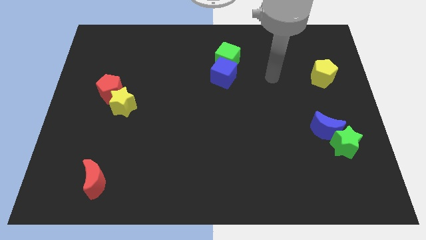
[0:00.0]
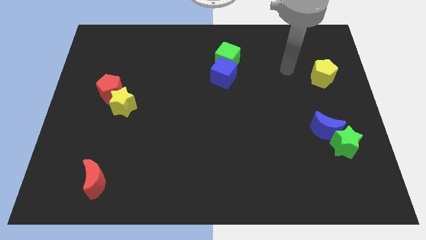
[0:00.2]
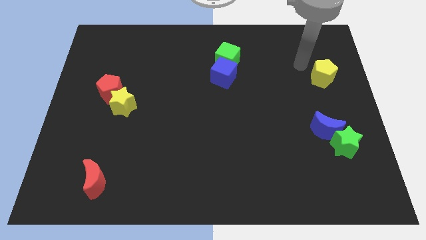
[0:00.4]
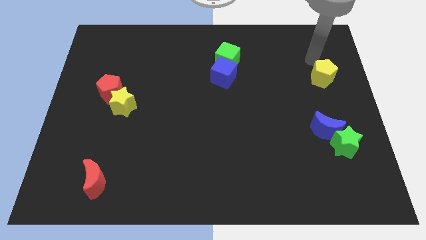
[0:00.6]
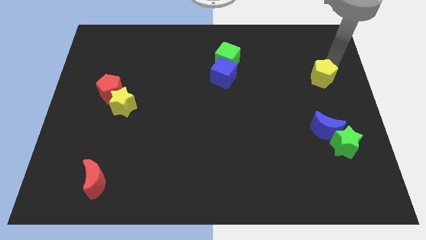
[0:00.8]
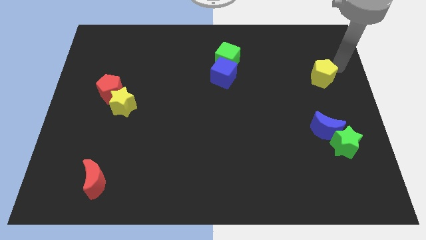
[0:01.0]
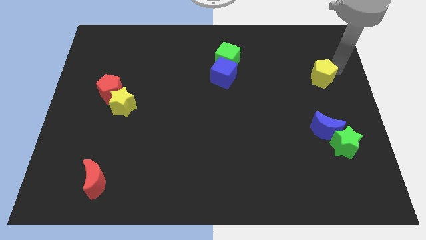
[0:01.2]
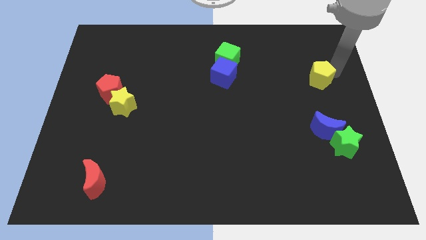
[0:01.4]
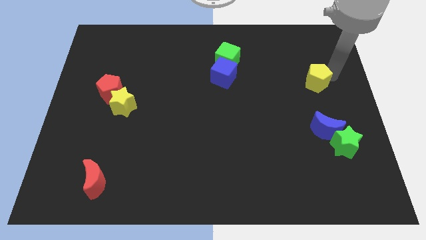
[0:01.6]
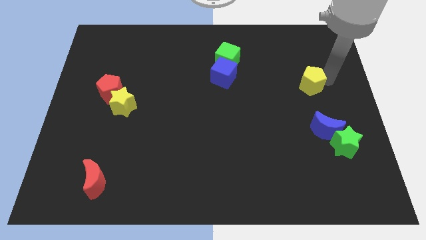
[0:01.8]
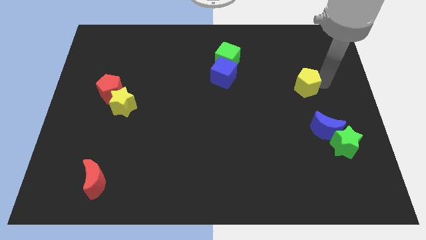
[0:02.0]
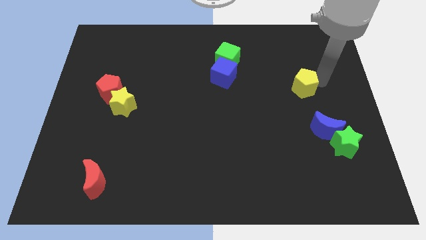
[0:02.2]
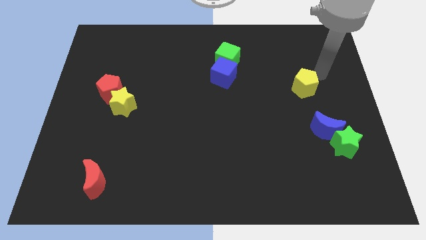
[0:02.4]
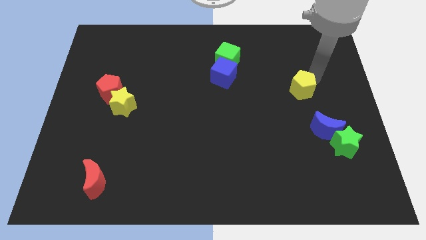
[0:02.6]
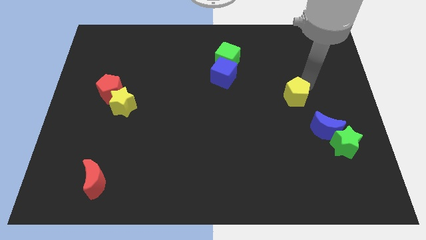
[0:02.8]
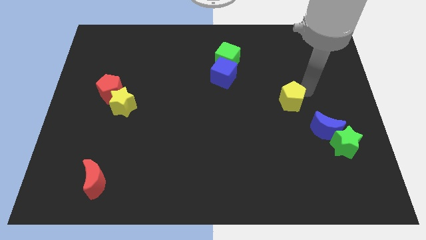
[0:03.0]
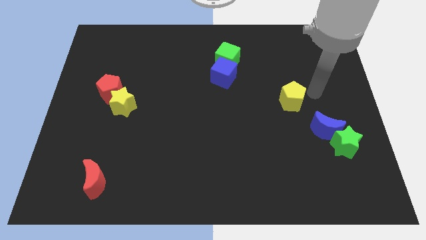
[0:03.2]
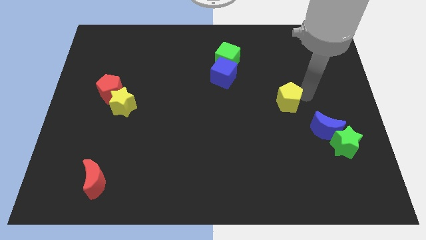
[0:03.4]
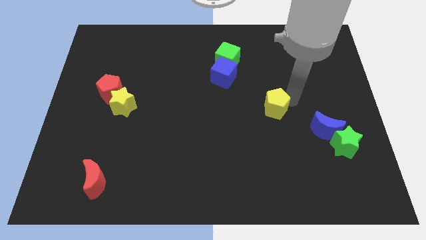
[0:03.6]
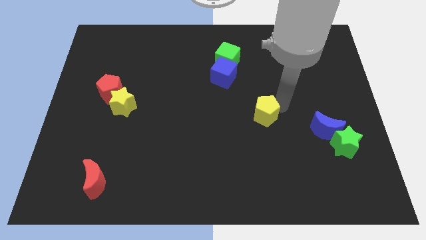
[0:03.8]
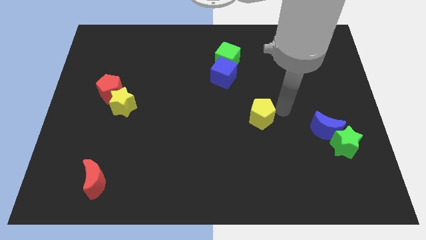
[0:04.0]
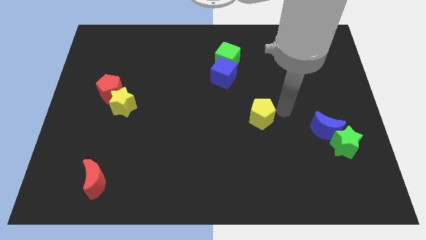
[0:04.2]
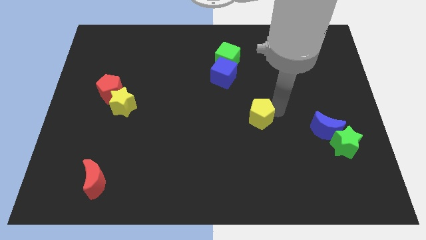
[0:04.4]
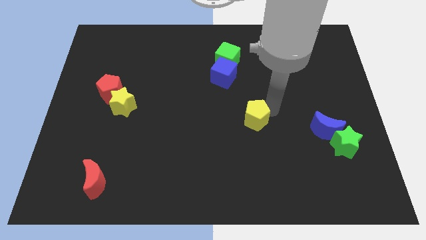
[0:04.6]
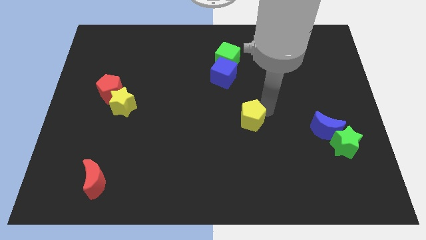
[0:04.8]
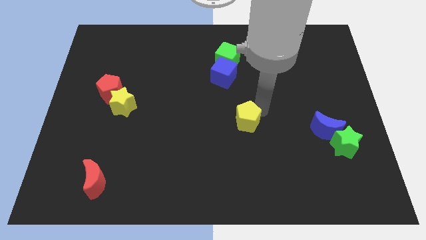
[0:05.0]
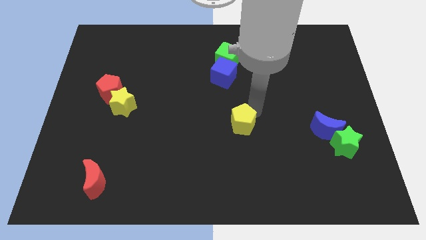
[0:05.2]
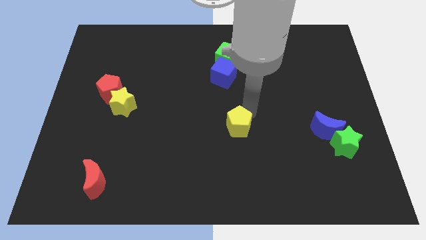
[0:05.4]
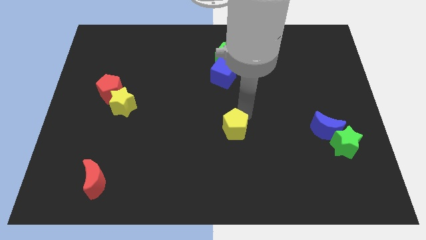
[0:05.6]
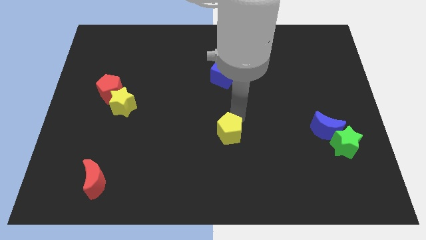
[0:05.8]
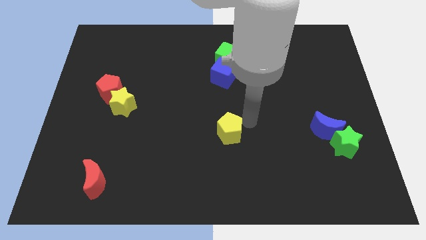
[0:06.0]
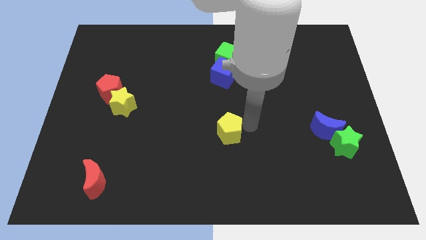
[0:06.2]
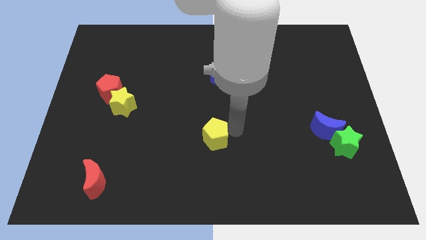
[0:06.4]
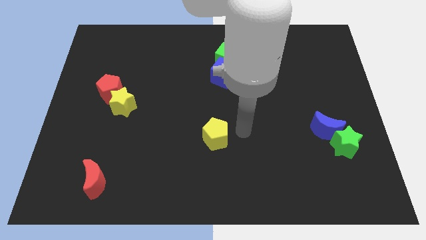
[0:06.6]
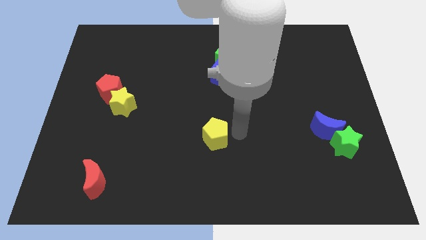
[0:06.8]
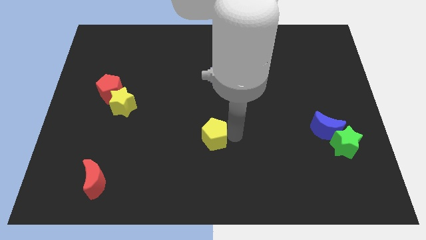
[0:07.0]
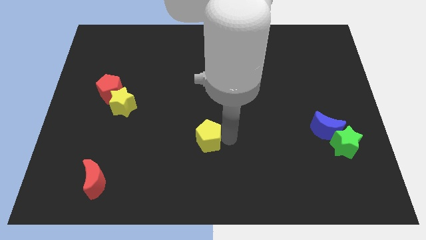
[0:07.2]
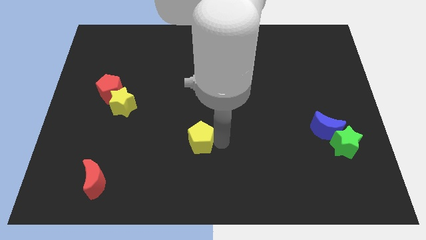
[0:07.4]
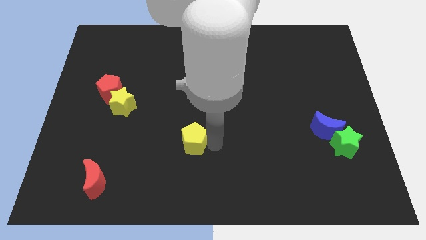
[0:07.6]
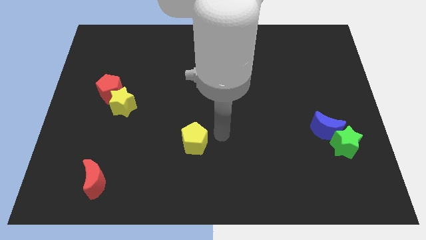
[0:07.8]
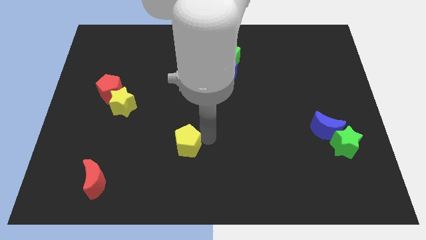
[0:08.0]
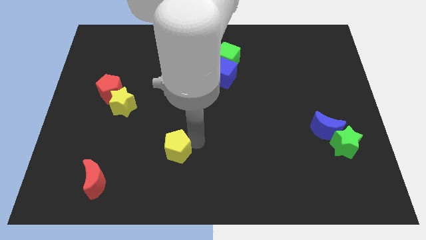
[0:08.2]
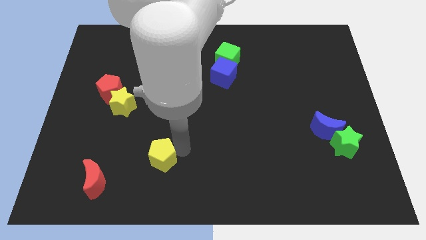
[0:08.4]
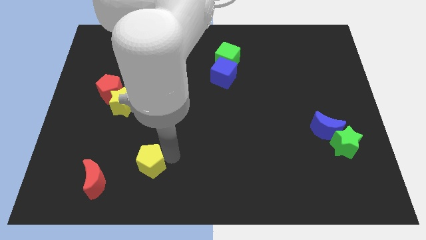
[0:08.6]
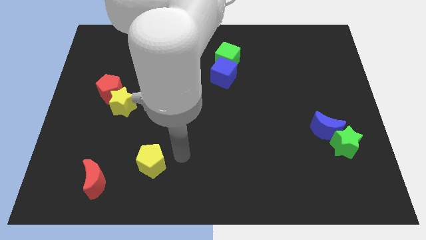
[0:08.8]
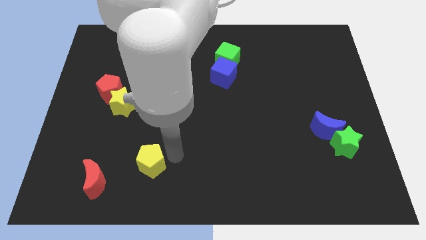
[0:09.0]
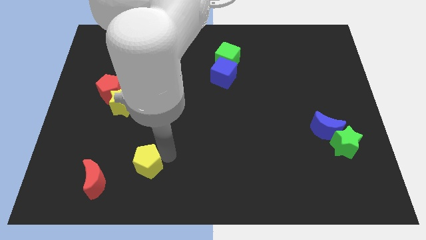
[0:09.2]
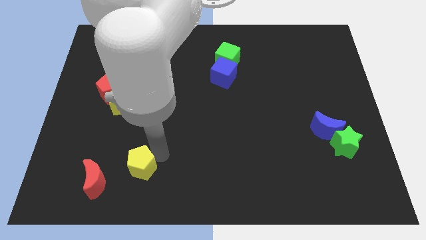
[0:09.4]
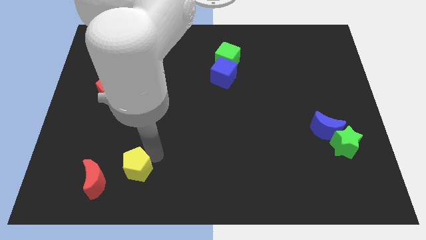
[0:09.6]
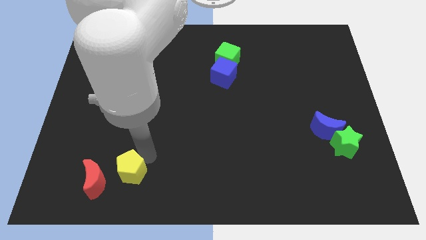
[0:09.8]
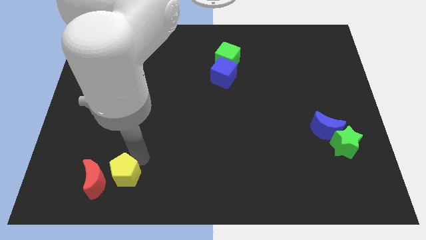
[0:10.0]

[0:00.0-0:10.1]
move the yellow pentagon close to the red moon

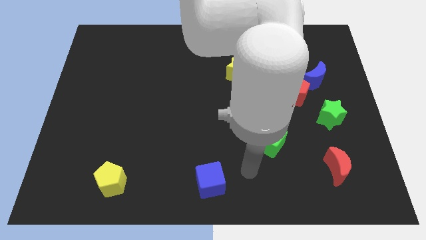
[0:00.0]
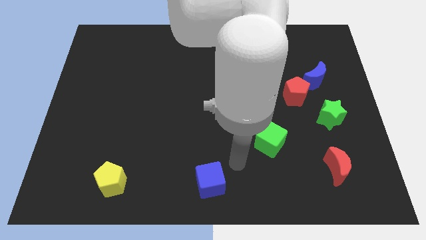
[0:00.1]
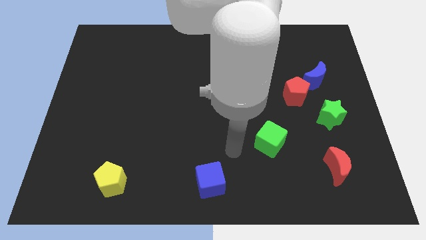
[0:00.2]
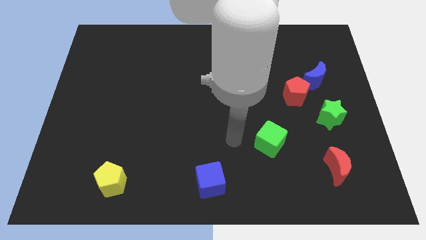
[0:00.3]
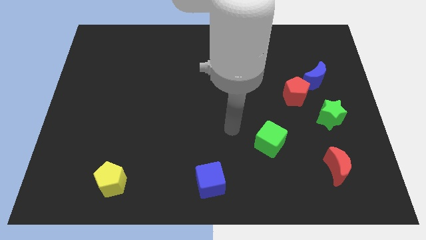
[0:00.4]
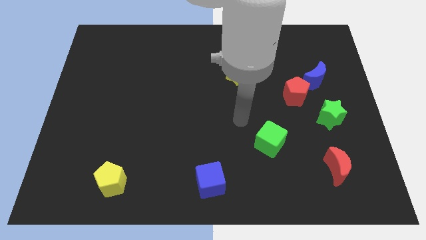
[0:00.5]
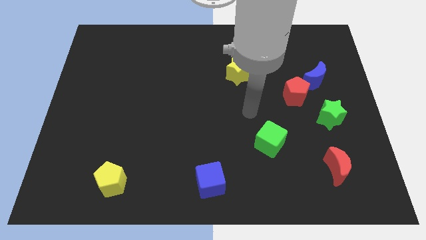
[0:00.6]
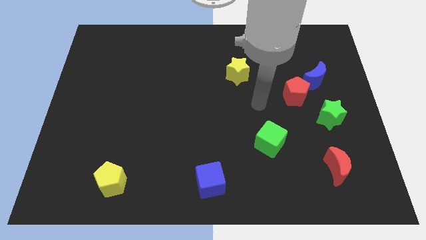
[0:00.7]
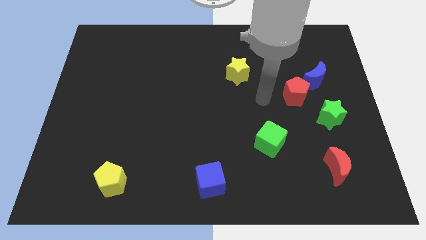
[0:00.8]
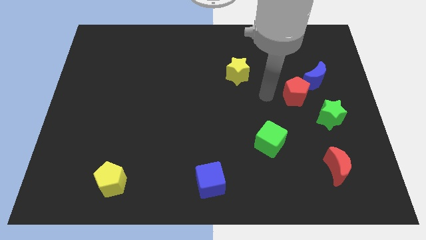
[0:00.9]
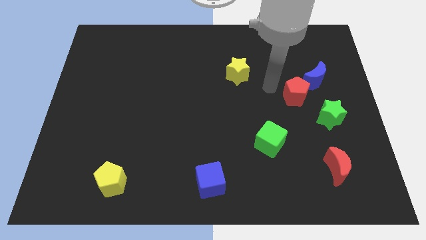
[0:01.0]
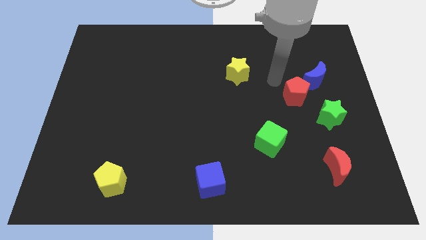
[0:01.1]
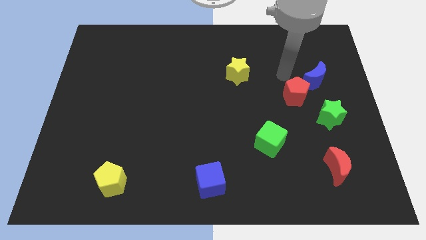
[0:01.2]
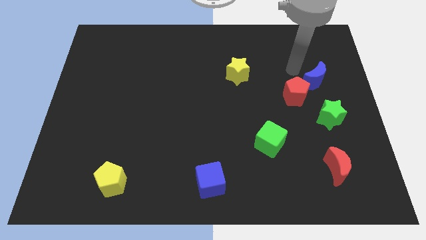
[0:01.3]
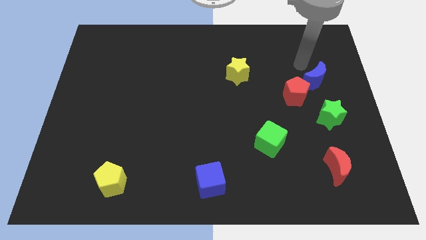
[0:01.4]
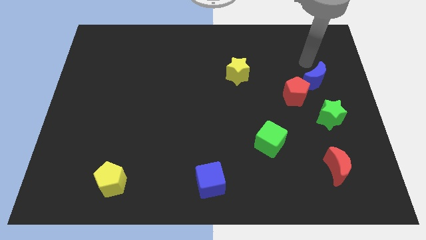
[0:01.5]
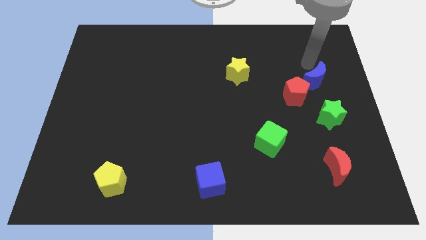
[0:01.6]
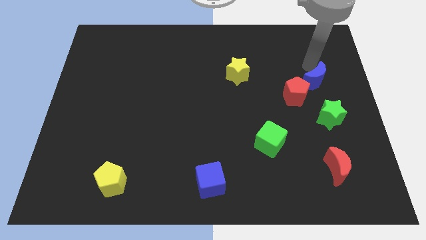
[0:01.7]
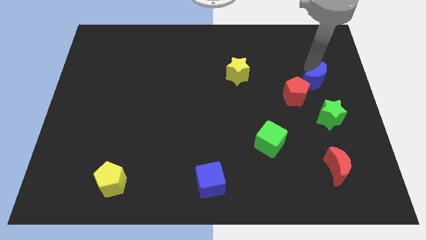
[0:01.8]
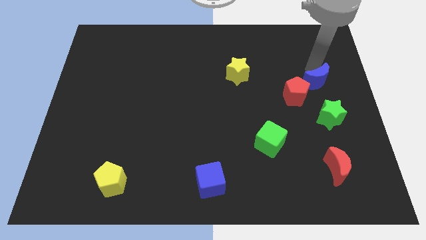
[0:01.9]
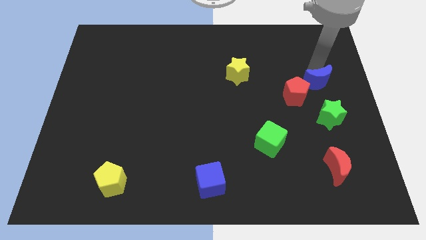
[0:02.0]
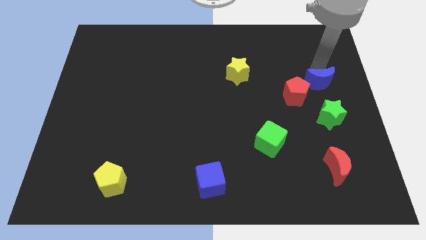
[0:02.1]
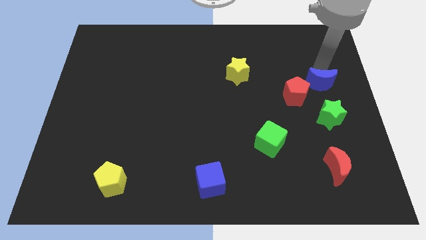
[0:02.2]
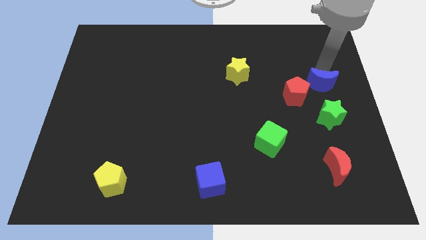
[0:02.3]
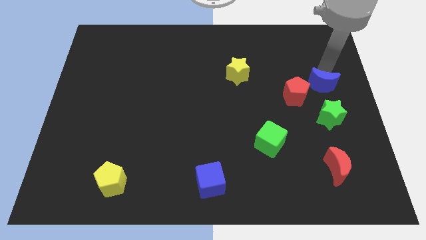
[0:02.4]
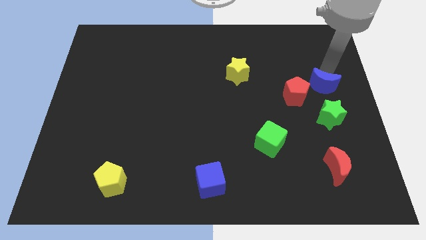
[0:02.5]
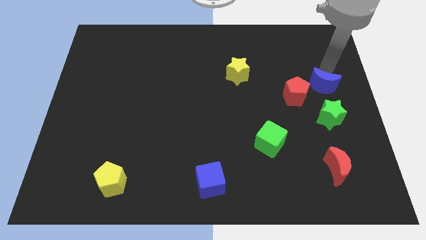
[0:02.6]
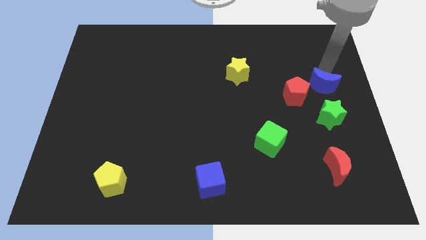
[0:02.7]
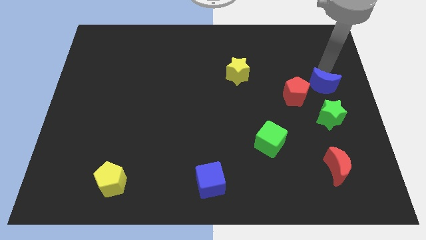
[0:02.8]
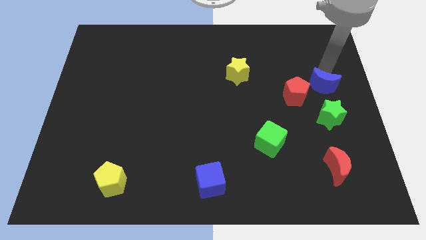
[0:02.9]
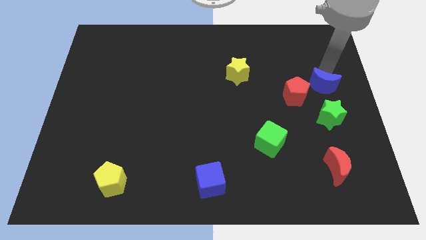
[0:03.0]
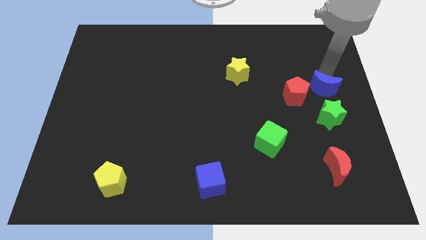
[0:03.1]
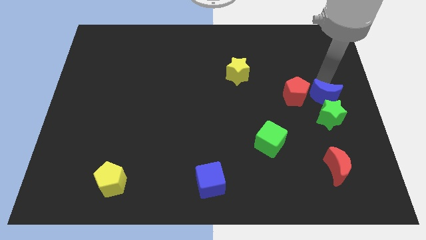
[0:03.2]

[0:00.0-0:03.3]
push the blue moon next to the green star
